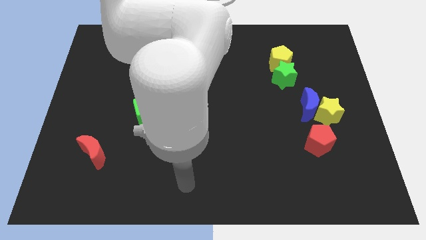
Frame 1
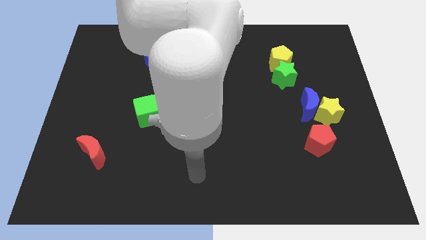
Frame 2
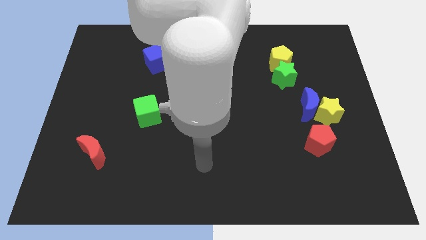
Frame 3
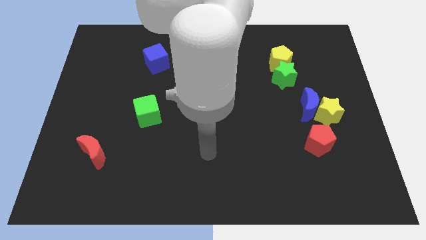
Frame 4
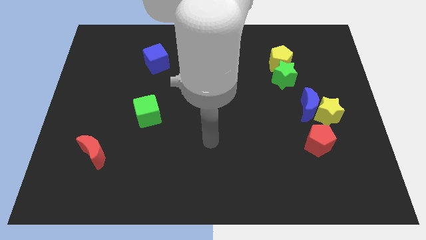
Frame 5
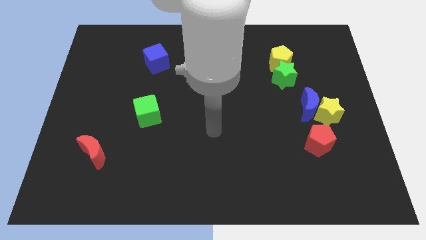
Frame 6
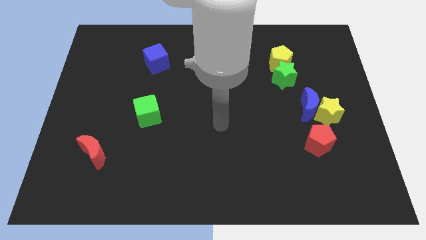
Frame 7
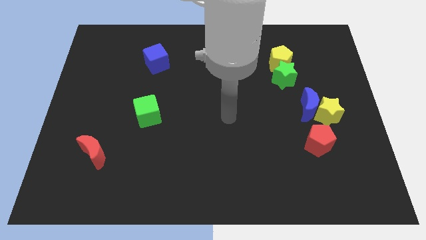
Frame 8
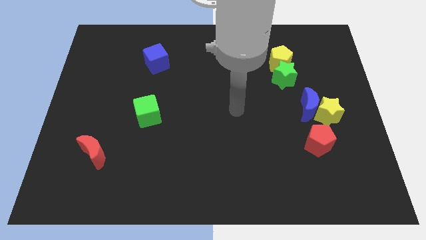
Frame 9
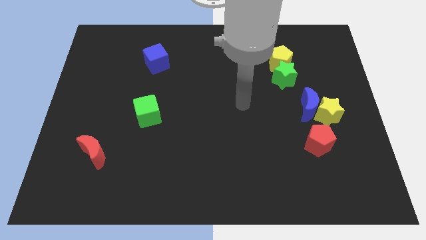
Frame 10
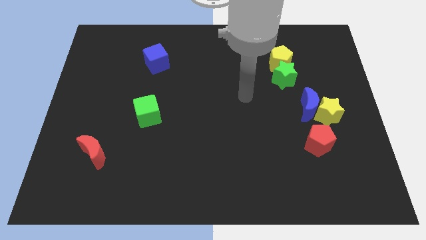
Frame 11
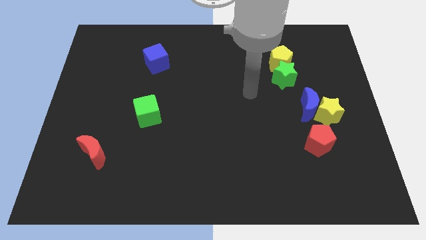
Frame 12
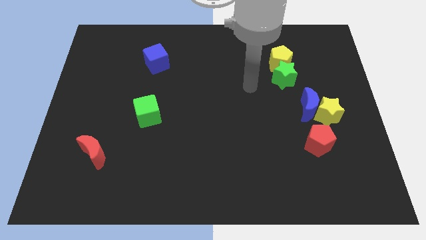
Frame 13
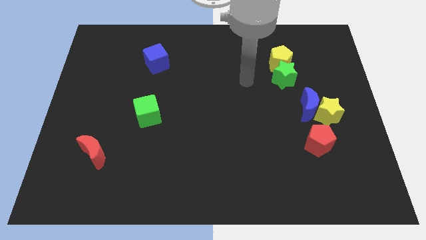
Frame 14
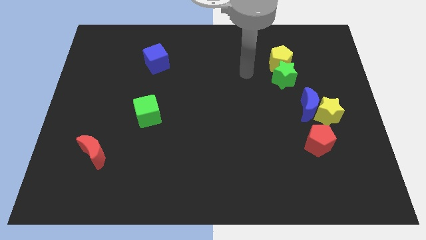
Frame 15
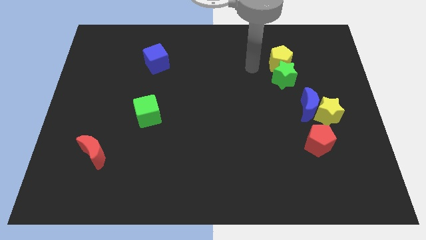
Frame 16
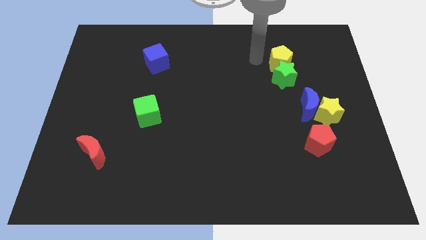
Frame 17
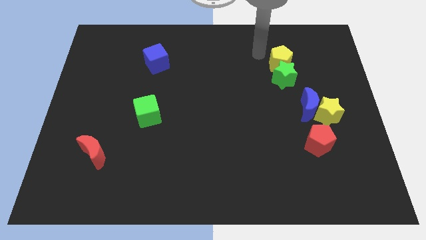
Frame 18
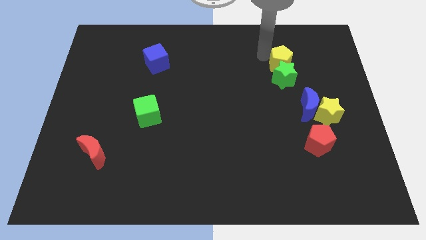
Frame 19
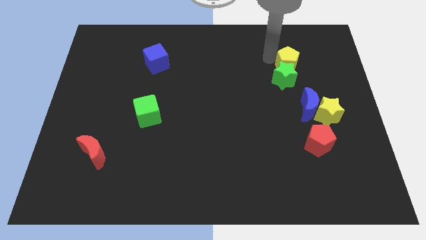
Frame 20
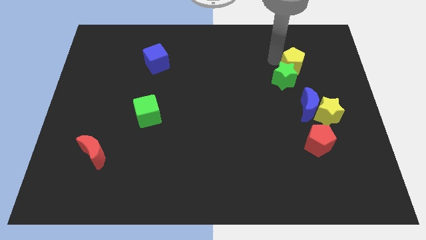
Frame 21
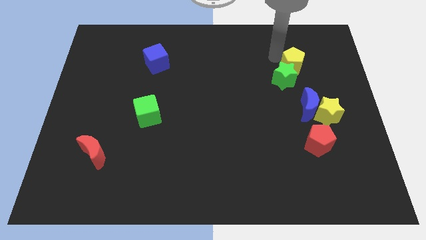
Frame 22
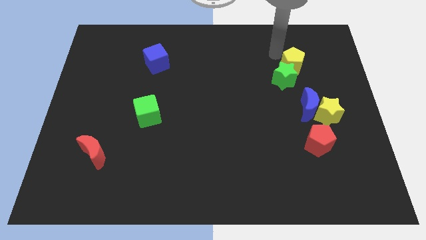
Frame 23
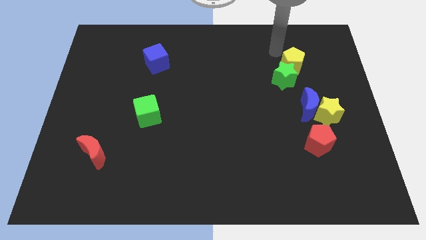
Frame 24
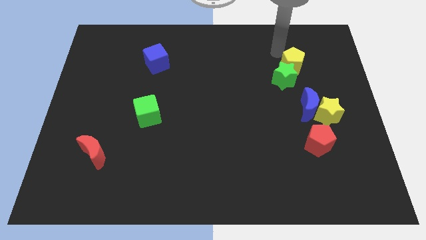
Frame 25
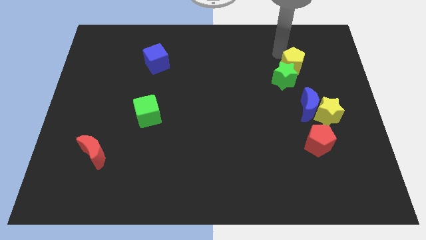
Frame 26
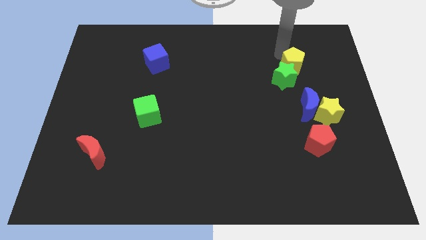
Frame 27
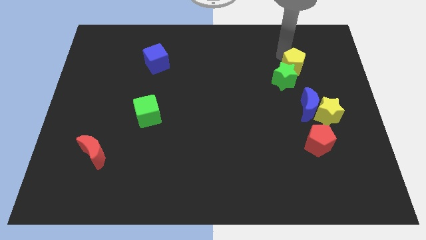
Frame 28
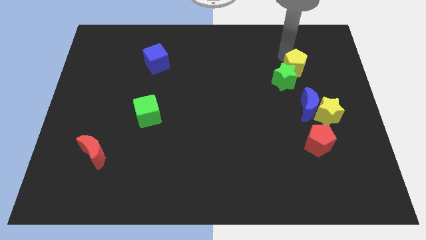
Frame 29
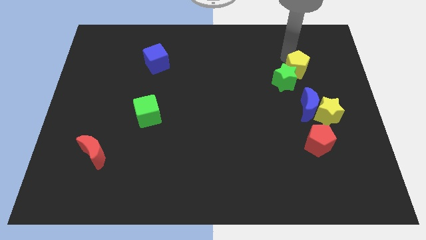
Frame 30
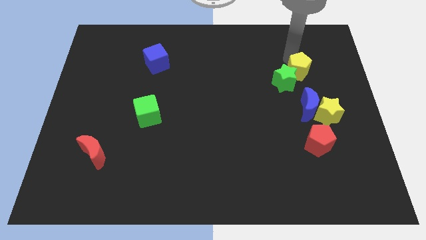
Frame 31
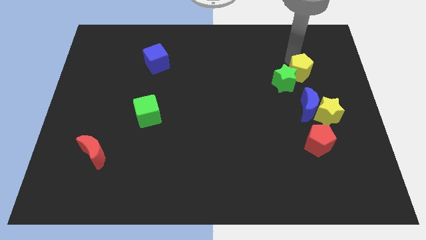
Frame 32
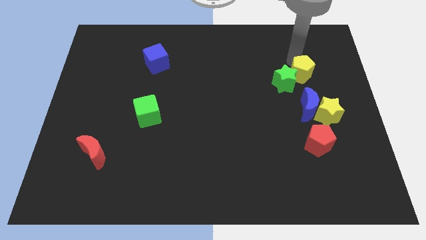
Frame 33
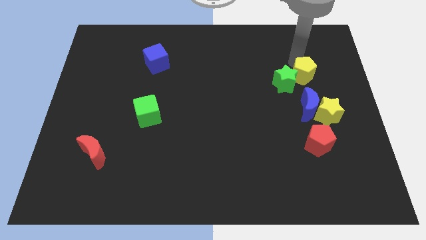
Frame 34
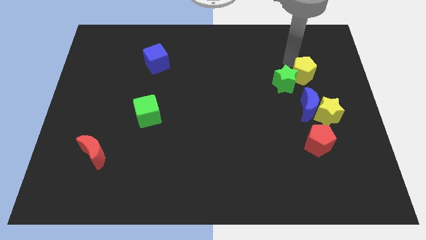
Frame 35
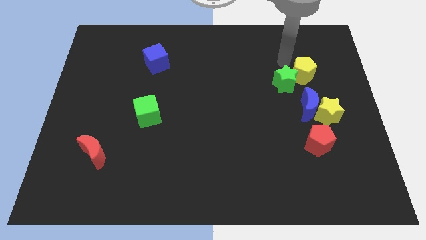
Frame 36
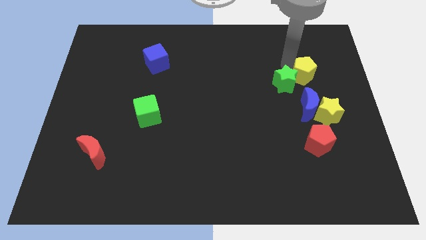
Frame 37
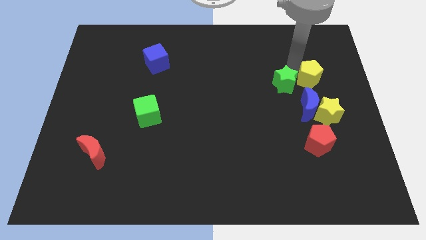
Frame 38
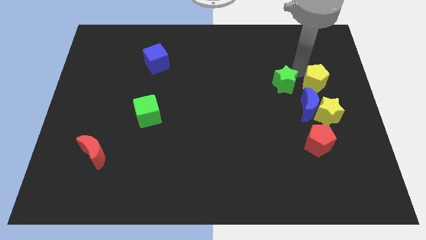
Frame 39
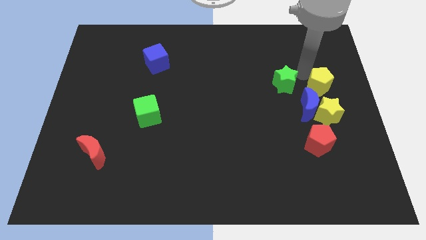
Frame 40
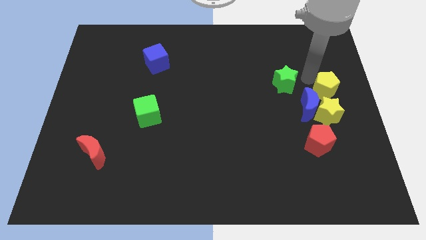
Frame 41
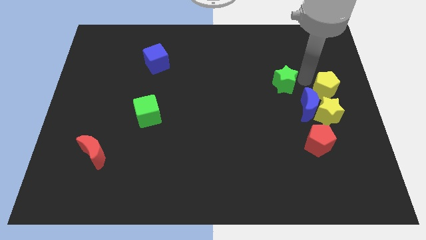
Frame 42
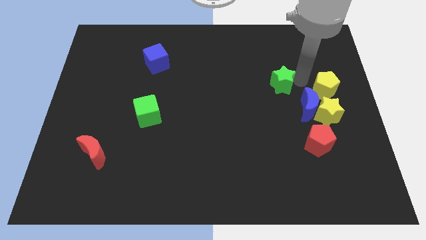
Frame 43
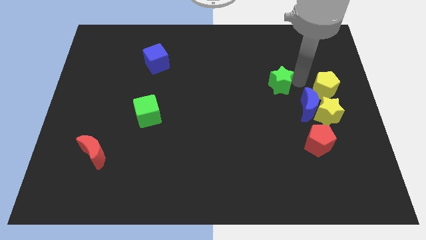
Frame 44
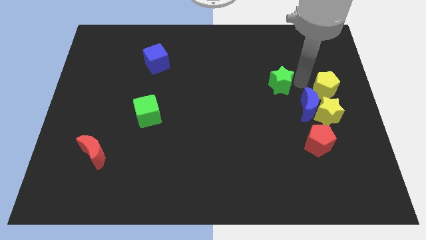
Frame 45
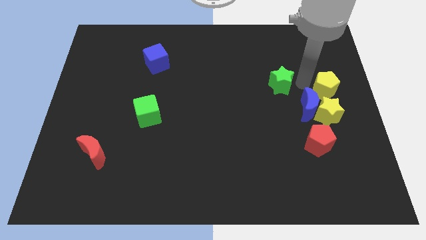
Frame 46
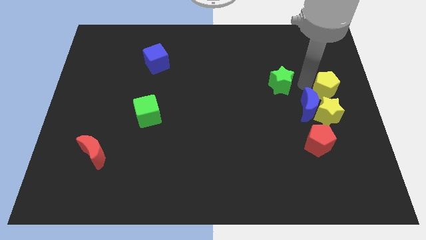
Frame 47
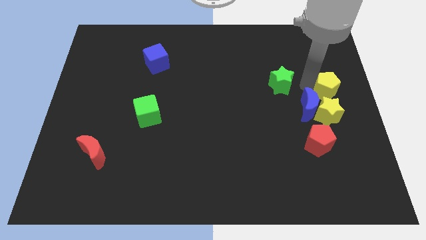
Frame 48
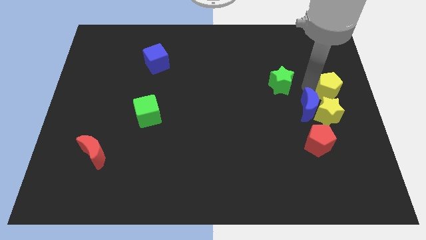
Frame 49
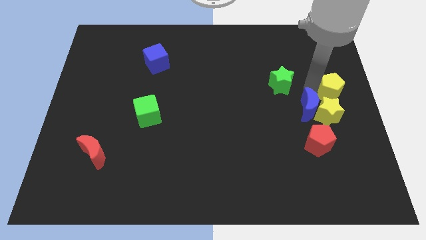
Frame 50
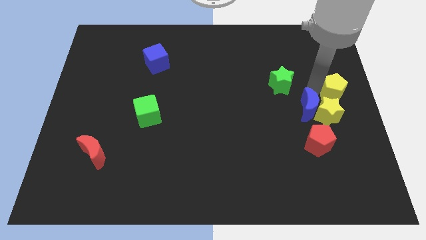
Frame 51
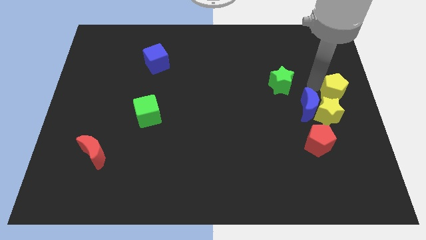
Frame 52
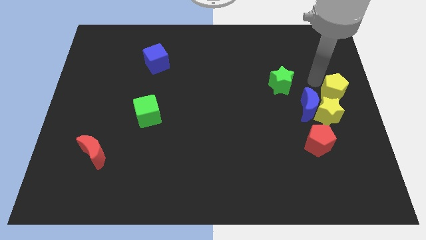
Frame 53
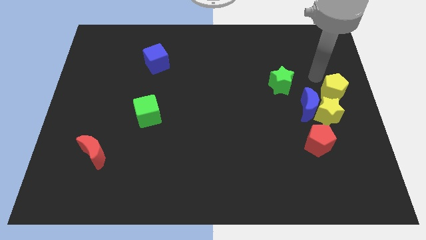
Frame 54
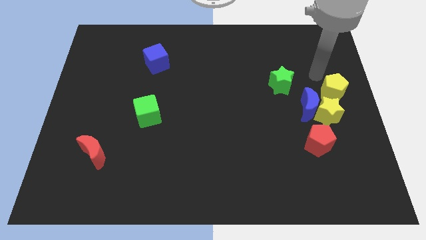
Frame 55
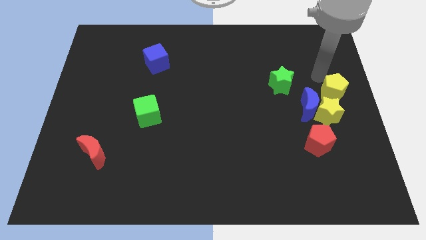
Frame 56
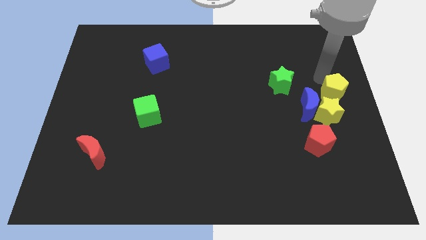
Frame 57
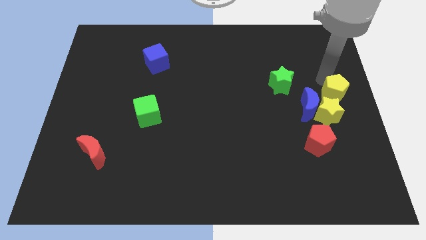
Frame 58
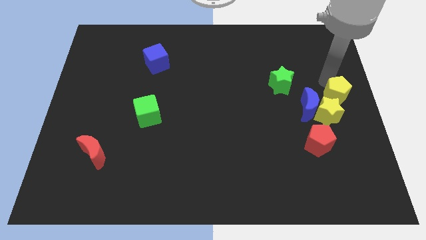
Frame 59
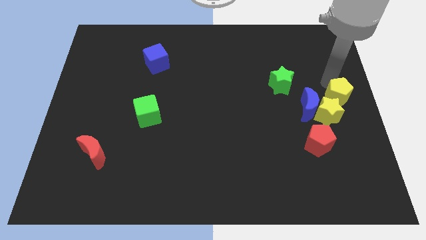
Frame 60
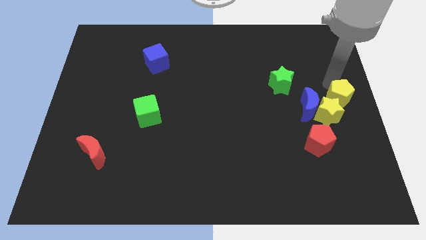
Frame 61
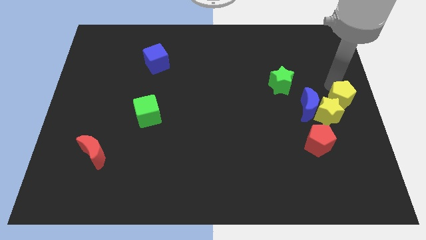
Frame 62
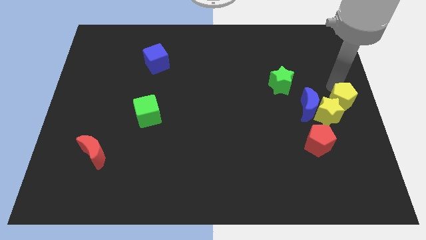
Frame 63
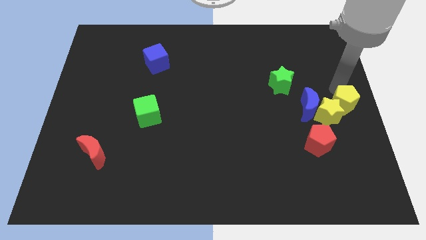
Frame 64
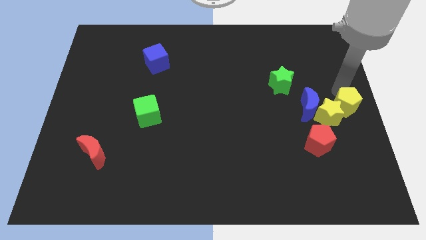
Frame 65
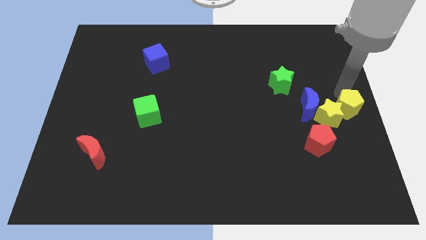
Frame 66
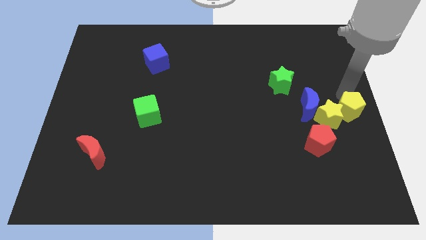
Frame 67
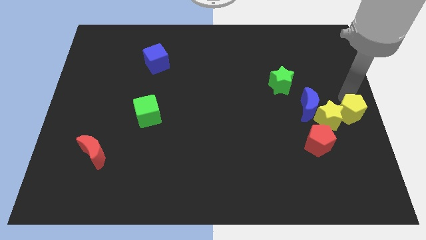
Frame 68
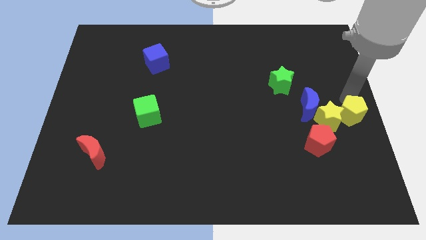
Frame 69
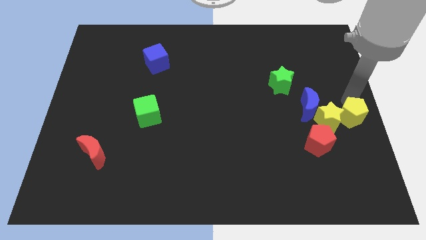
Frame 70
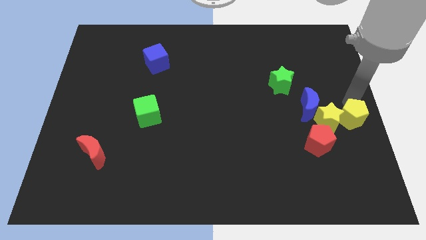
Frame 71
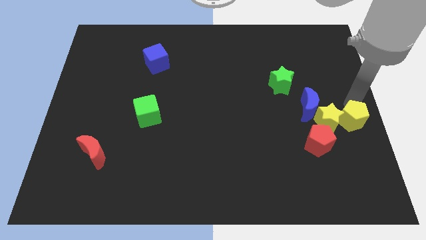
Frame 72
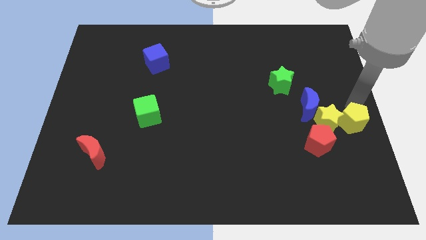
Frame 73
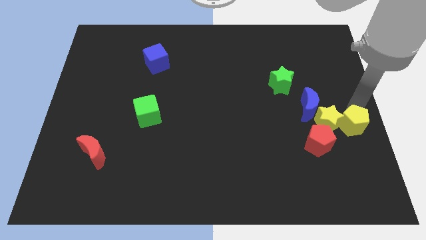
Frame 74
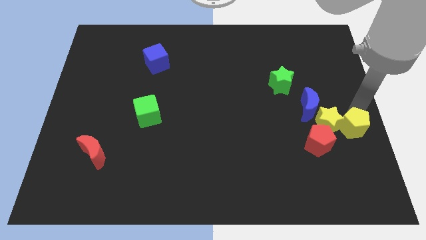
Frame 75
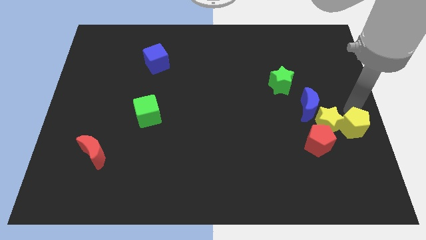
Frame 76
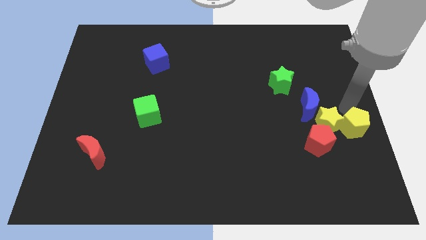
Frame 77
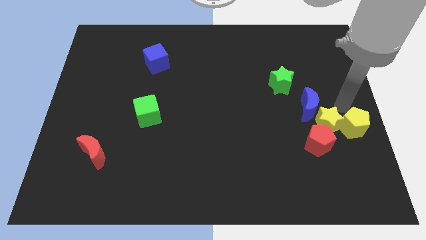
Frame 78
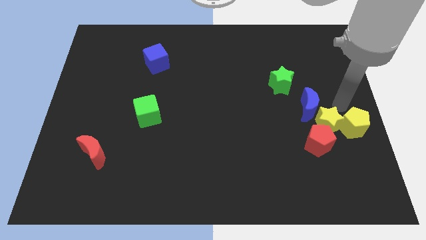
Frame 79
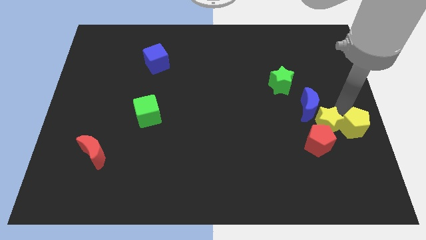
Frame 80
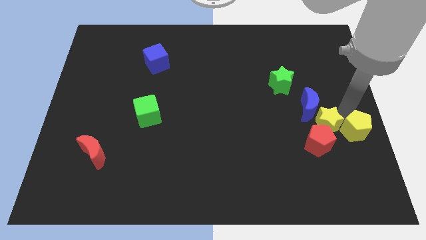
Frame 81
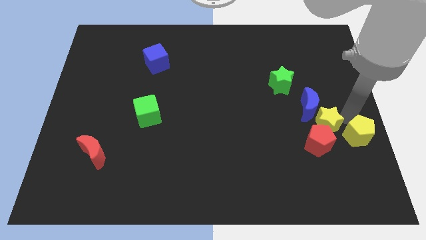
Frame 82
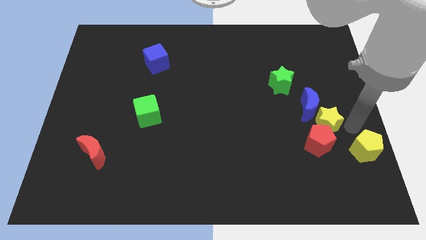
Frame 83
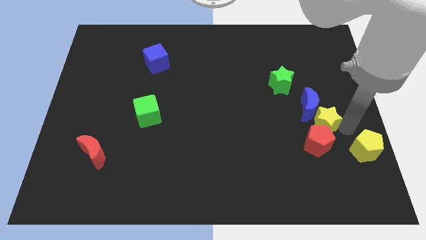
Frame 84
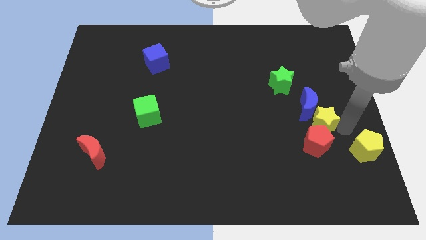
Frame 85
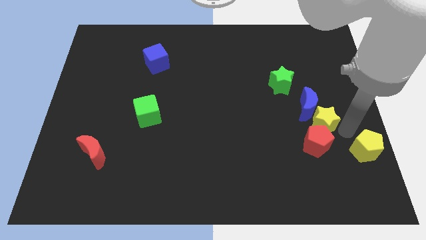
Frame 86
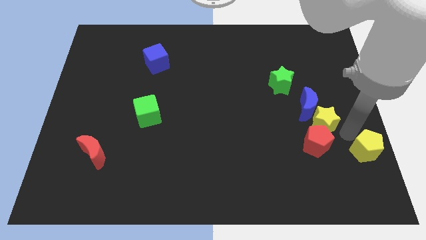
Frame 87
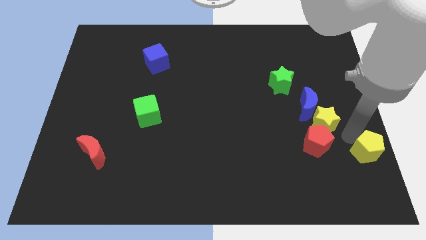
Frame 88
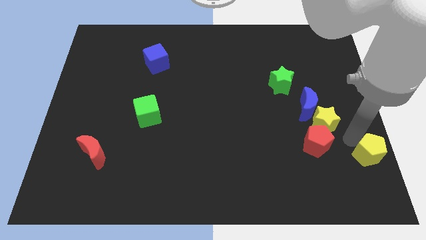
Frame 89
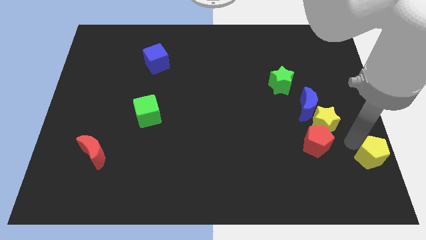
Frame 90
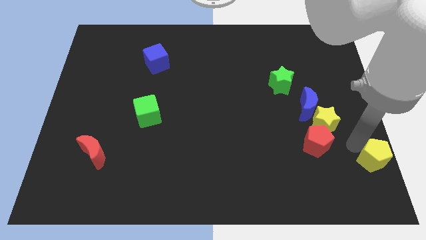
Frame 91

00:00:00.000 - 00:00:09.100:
push the yellow pentagon to the lower right corner
